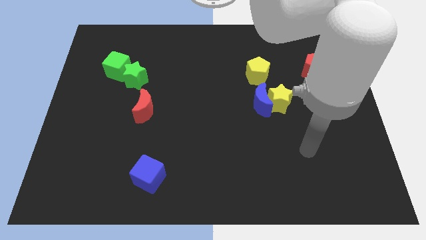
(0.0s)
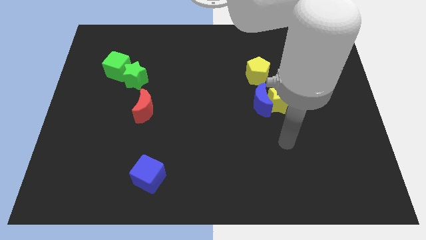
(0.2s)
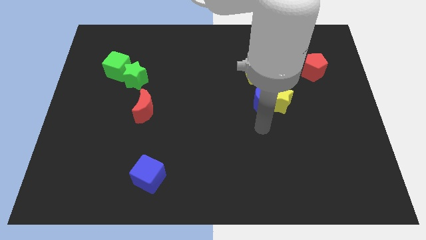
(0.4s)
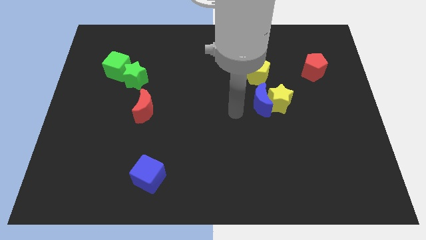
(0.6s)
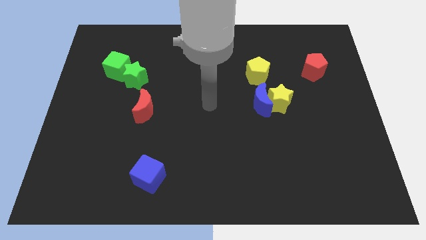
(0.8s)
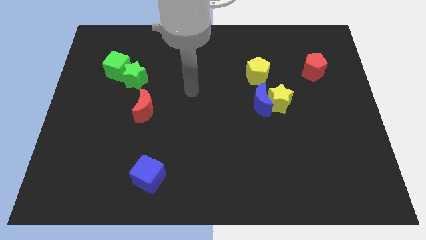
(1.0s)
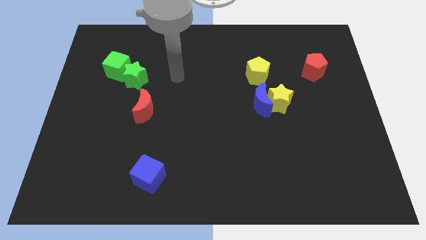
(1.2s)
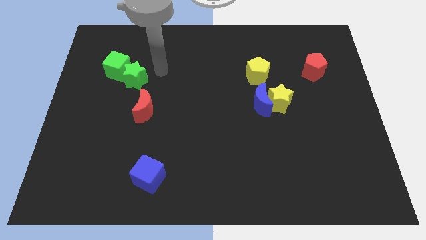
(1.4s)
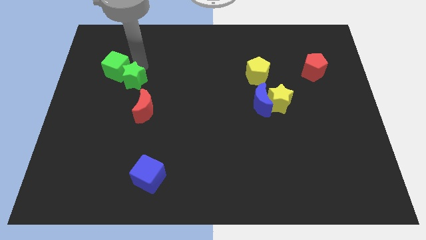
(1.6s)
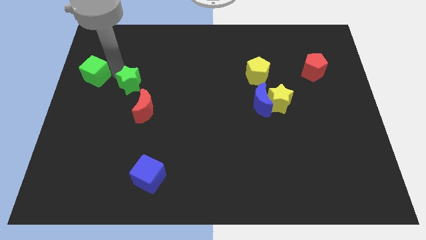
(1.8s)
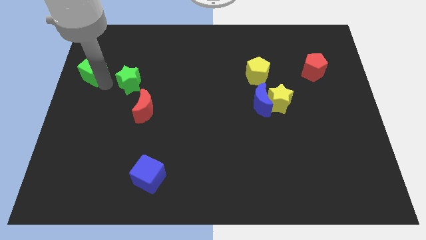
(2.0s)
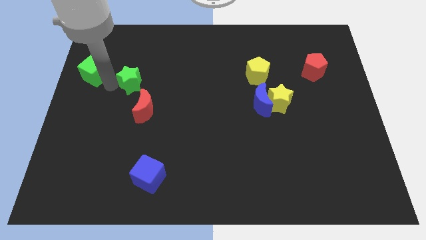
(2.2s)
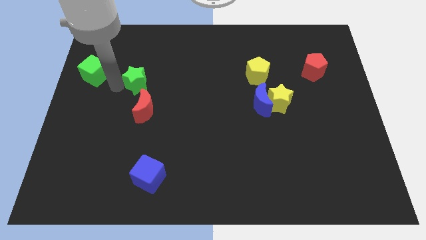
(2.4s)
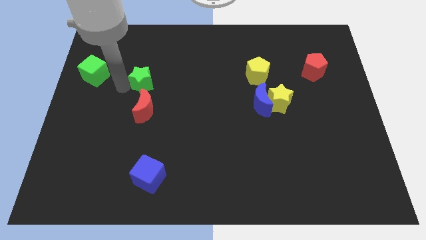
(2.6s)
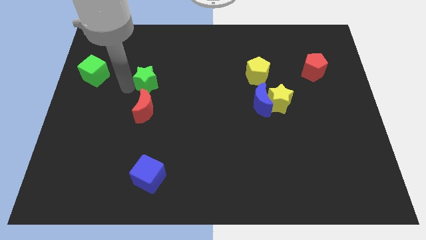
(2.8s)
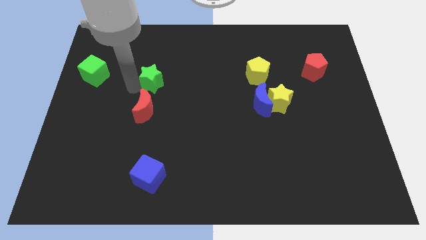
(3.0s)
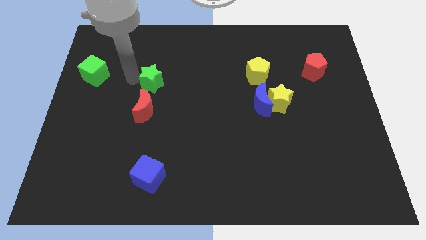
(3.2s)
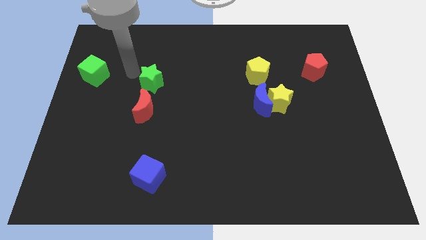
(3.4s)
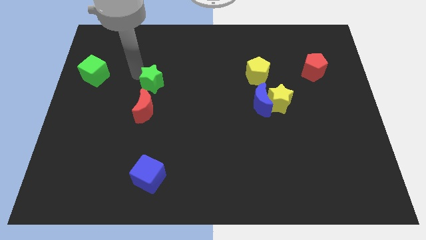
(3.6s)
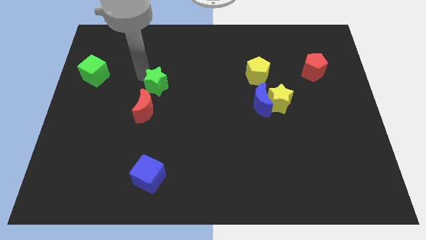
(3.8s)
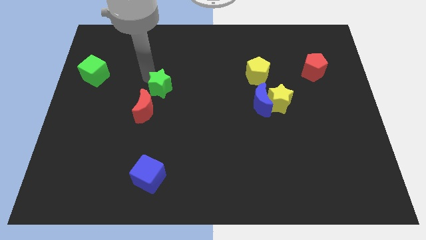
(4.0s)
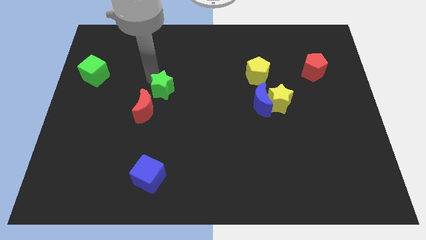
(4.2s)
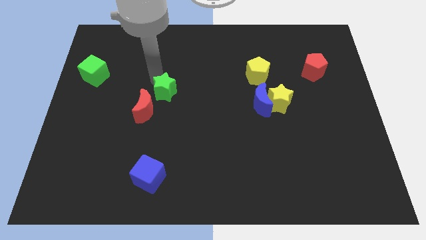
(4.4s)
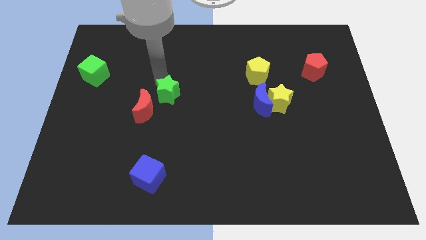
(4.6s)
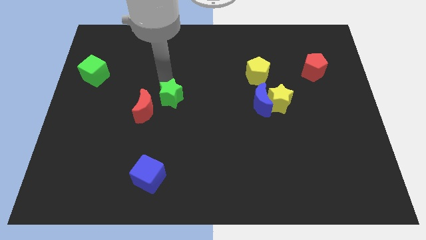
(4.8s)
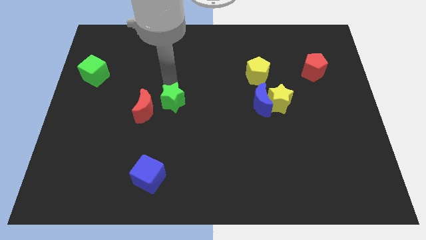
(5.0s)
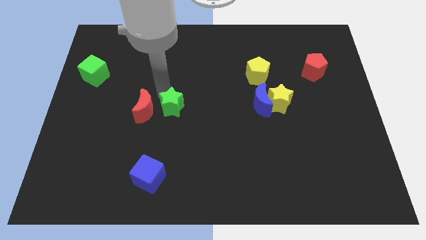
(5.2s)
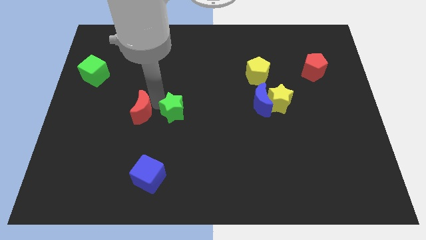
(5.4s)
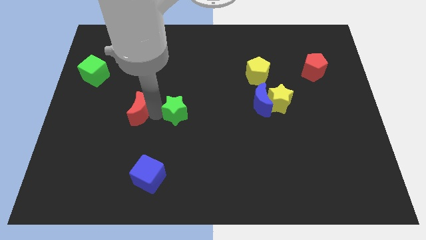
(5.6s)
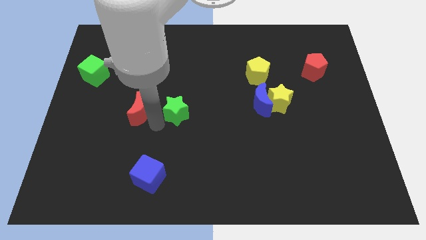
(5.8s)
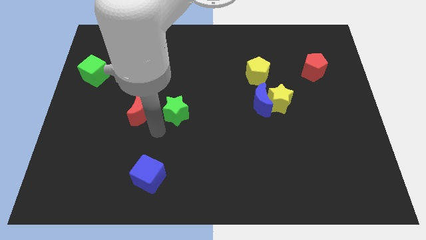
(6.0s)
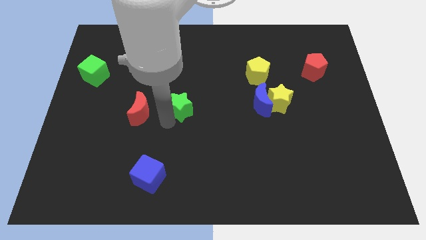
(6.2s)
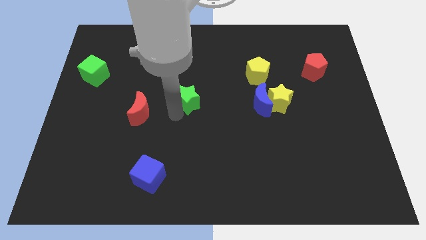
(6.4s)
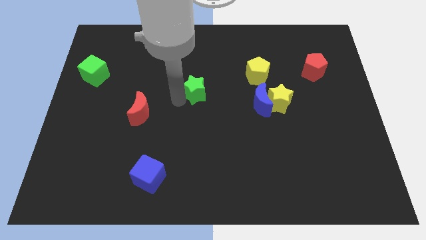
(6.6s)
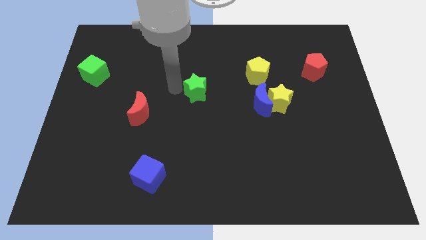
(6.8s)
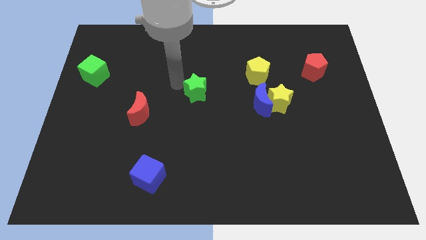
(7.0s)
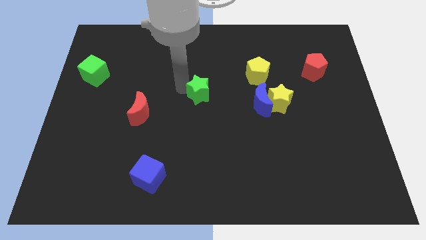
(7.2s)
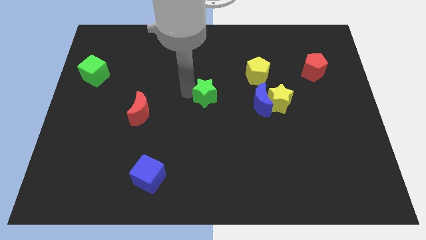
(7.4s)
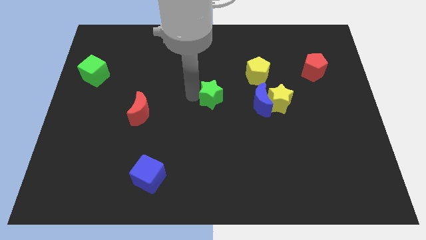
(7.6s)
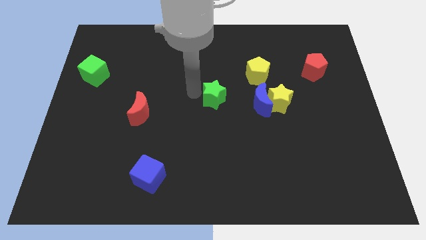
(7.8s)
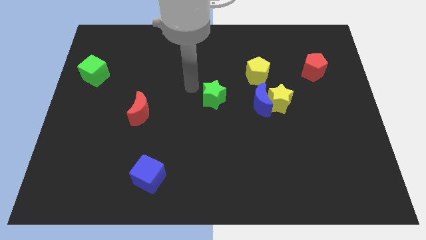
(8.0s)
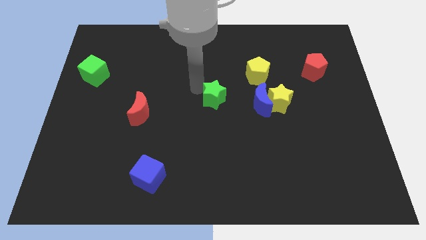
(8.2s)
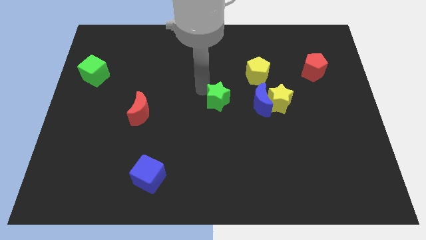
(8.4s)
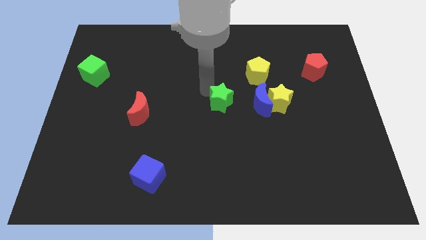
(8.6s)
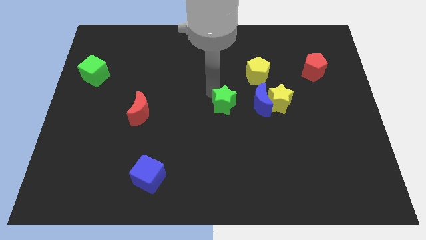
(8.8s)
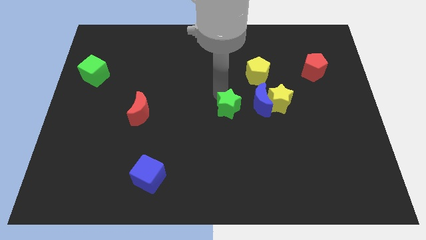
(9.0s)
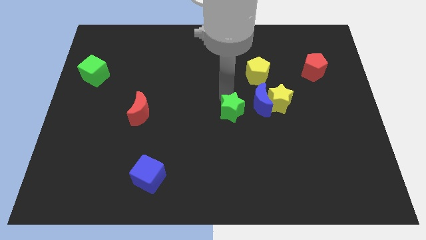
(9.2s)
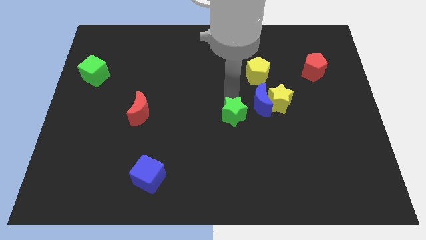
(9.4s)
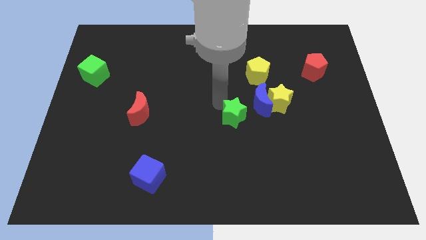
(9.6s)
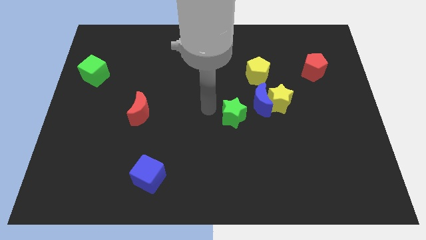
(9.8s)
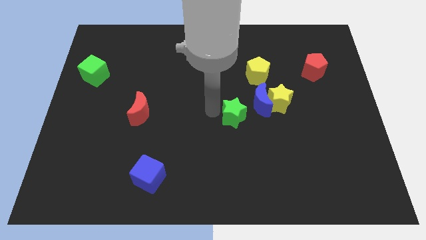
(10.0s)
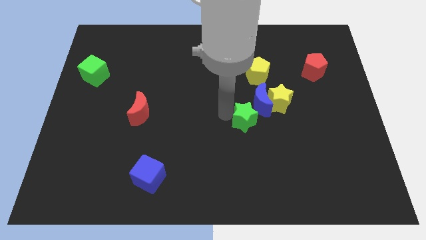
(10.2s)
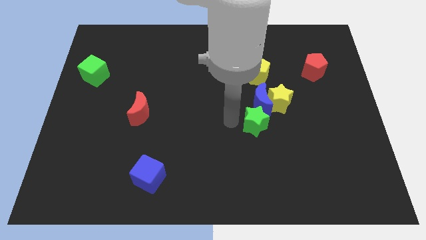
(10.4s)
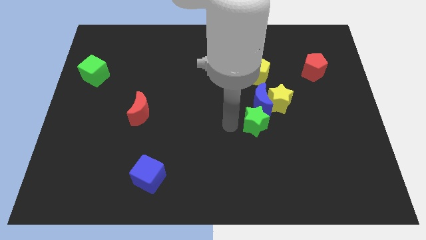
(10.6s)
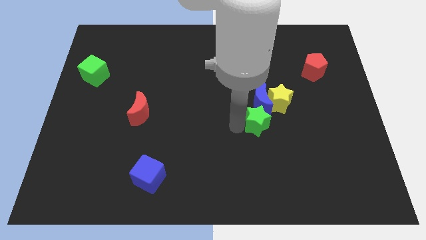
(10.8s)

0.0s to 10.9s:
push the green star diagonally down and to the right of the blue moon

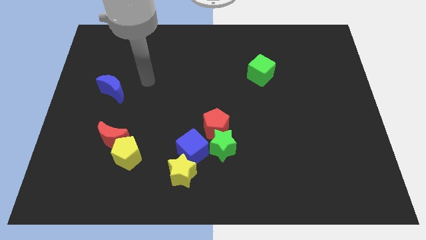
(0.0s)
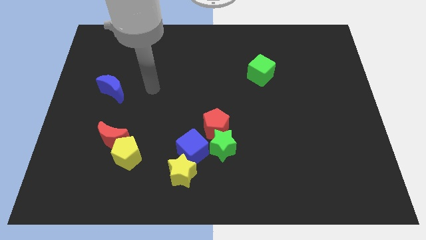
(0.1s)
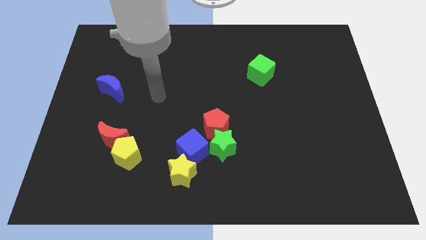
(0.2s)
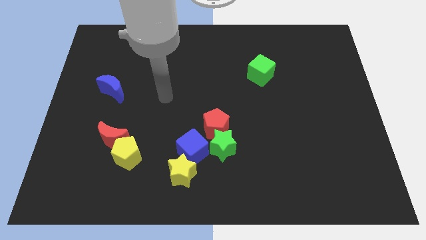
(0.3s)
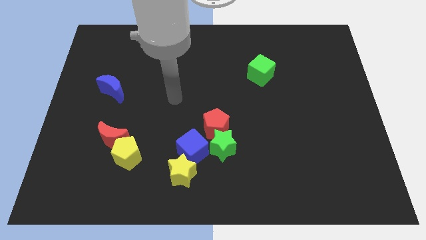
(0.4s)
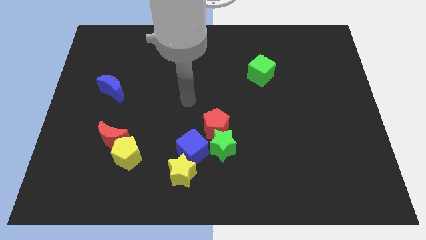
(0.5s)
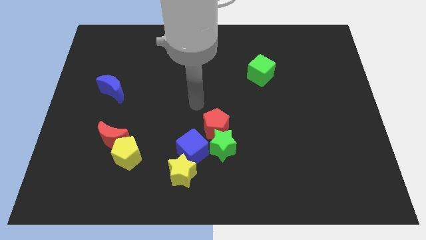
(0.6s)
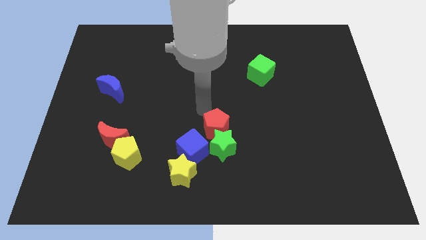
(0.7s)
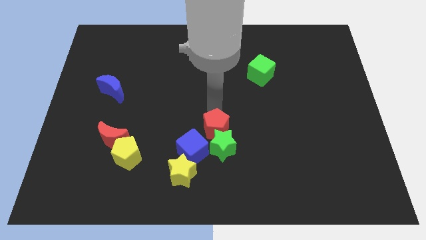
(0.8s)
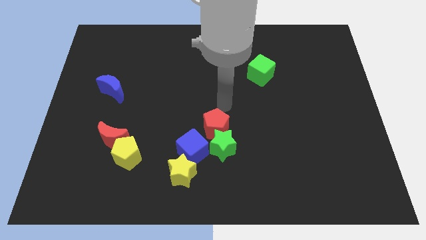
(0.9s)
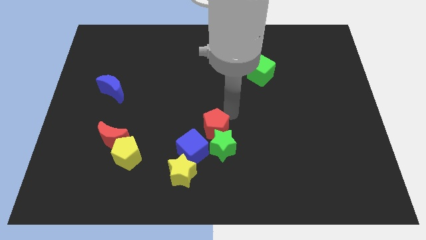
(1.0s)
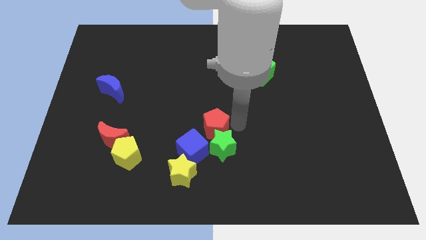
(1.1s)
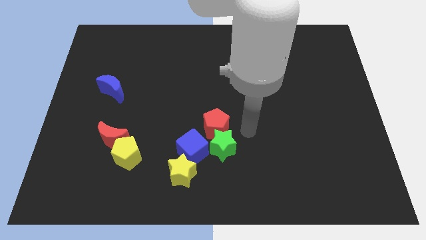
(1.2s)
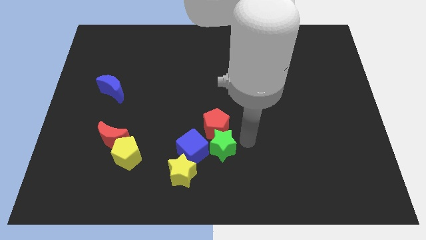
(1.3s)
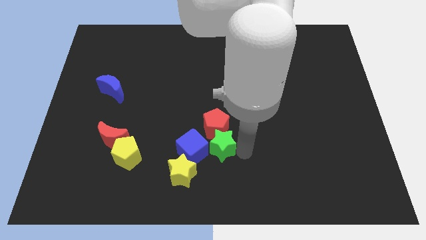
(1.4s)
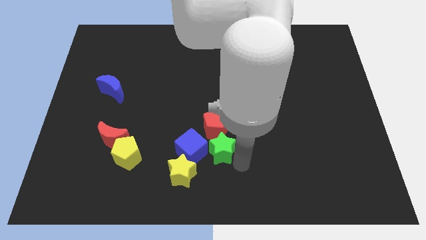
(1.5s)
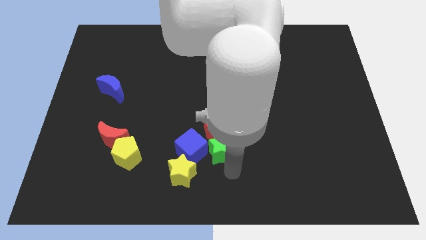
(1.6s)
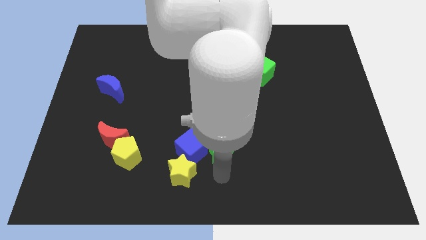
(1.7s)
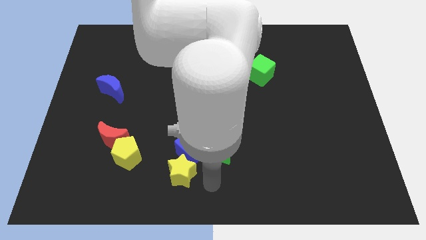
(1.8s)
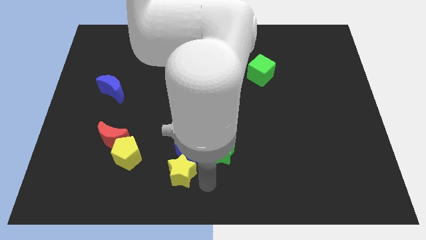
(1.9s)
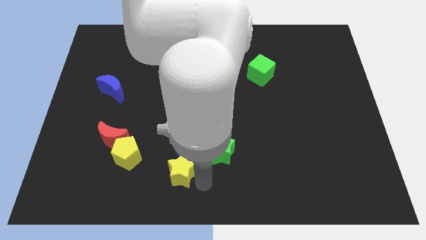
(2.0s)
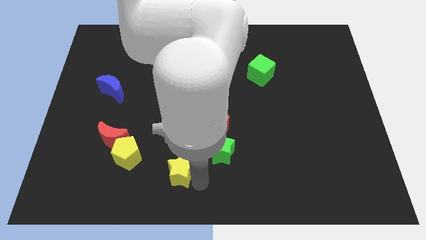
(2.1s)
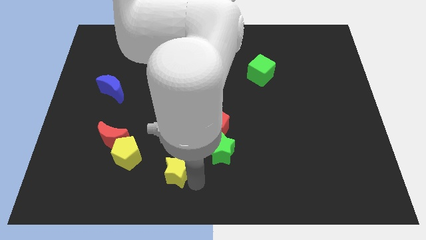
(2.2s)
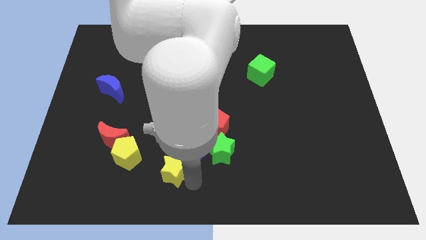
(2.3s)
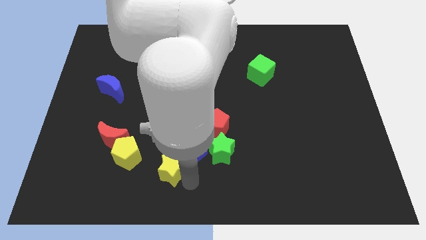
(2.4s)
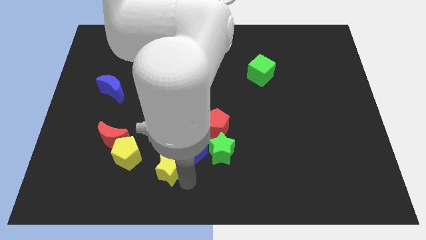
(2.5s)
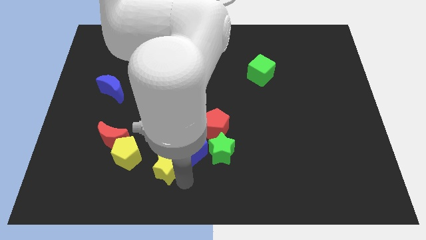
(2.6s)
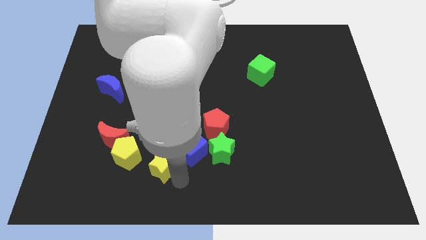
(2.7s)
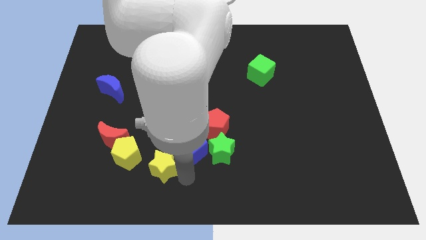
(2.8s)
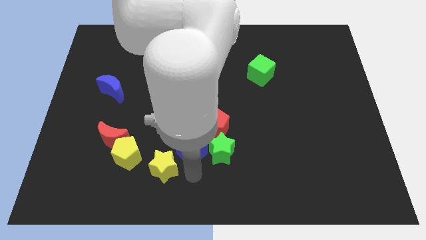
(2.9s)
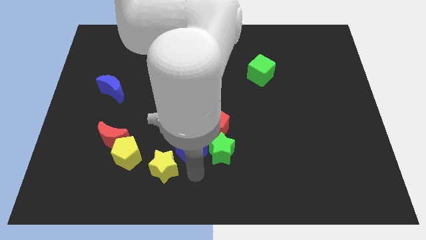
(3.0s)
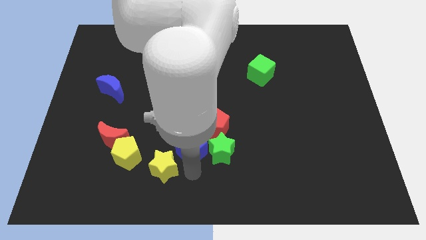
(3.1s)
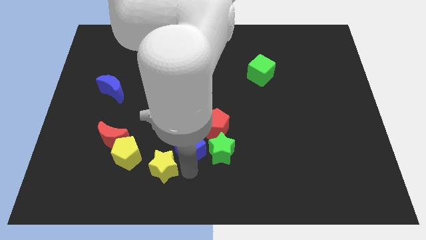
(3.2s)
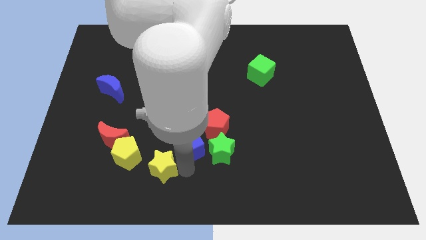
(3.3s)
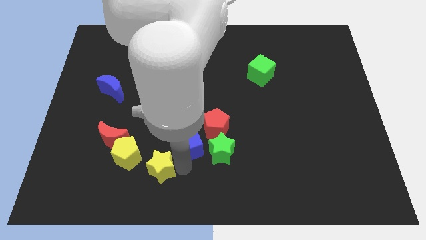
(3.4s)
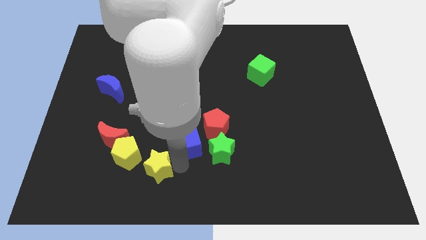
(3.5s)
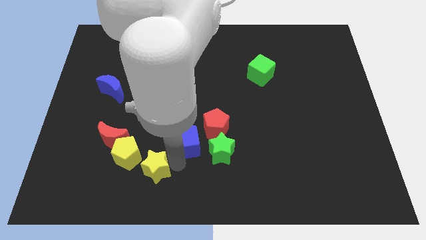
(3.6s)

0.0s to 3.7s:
slide the yellow star to the bottom right side of the red moon
